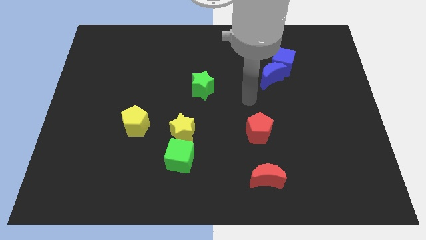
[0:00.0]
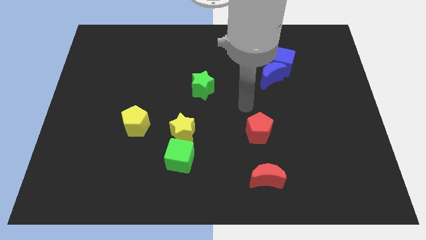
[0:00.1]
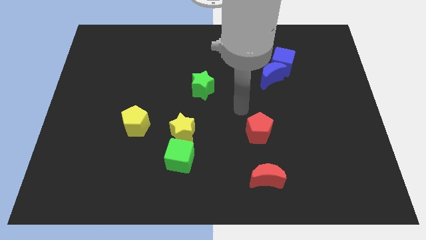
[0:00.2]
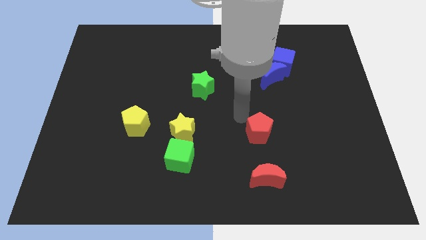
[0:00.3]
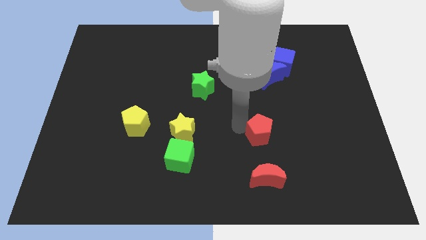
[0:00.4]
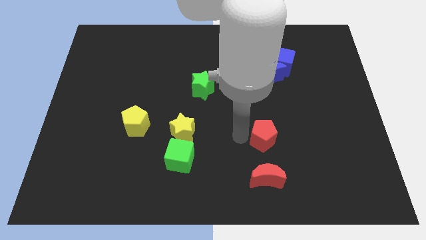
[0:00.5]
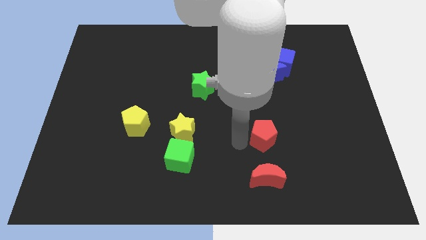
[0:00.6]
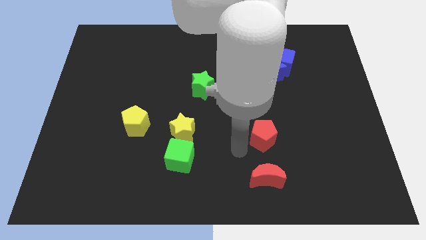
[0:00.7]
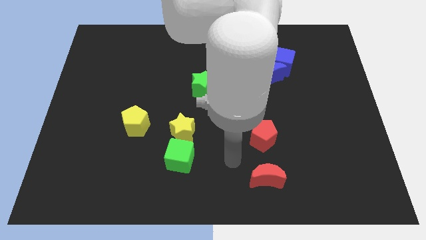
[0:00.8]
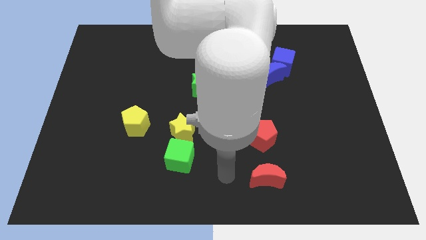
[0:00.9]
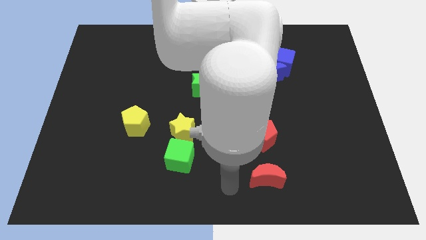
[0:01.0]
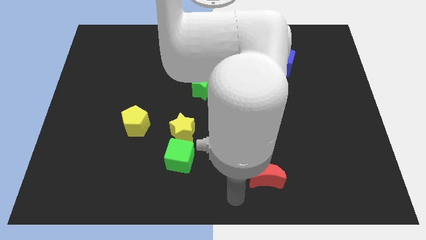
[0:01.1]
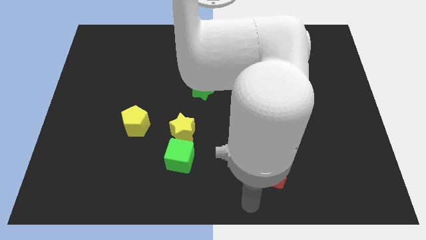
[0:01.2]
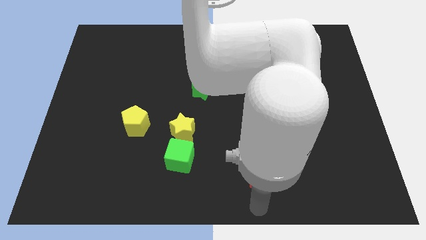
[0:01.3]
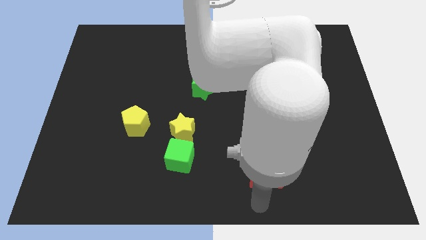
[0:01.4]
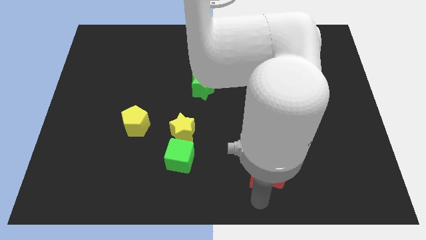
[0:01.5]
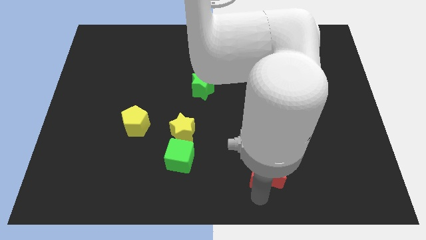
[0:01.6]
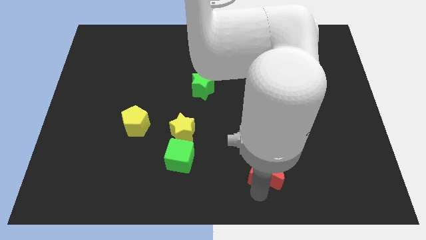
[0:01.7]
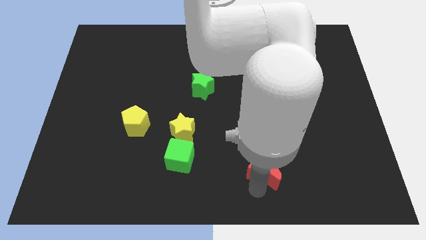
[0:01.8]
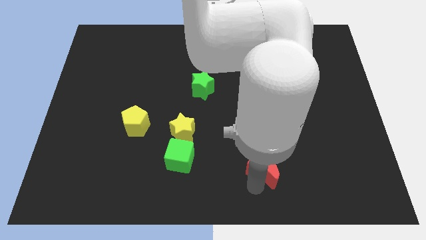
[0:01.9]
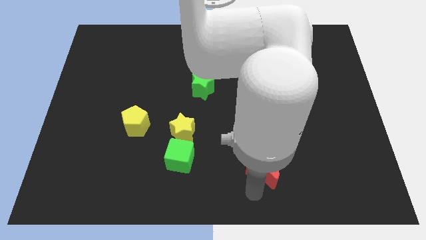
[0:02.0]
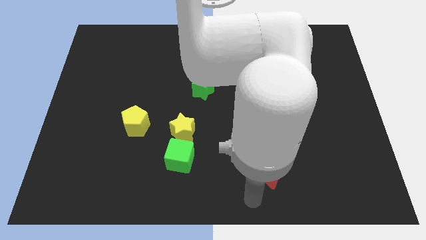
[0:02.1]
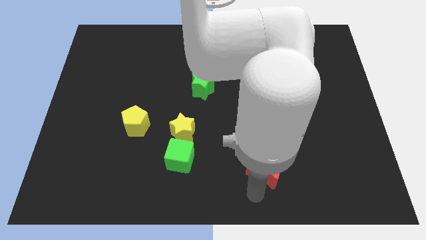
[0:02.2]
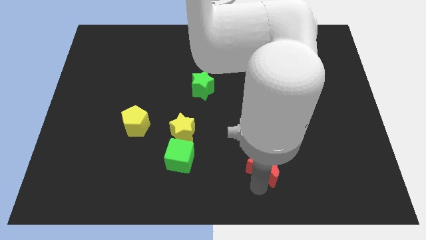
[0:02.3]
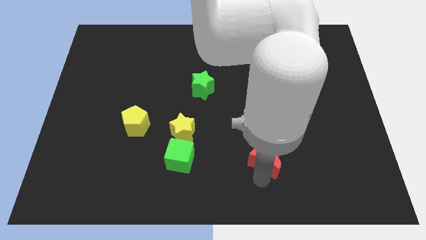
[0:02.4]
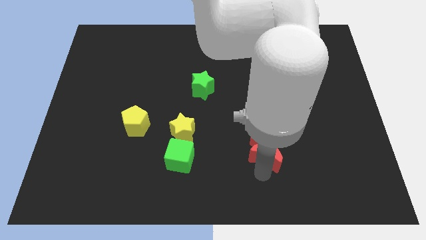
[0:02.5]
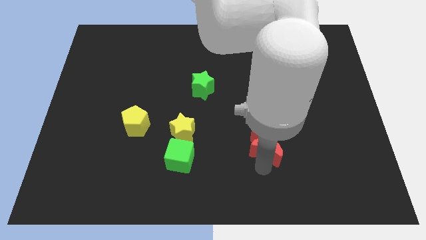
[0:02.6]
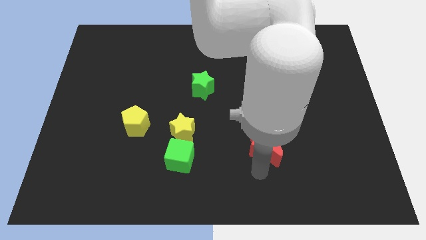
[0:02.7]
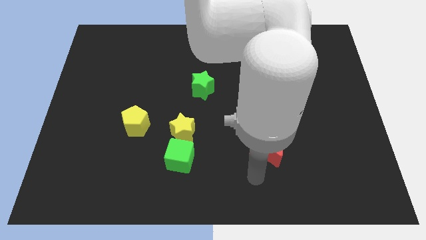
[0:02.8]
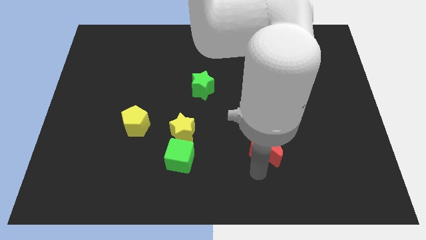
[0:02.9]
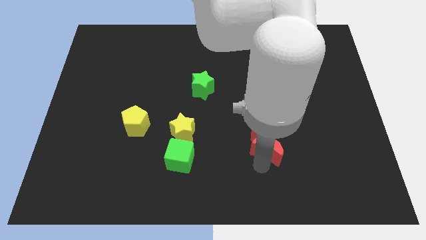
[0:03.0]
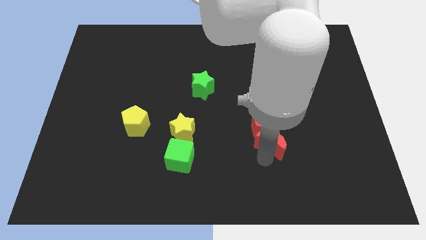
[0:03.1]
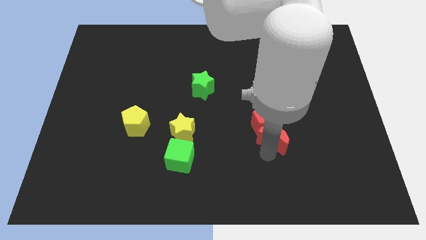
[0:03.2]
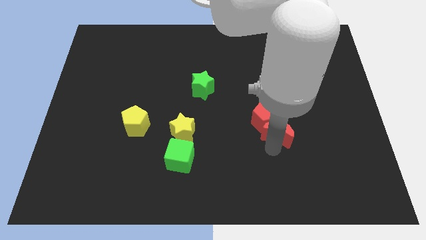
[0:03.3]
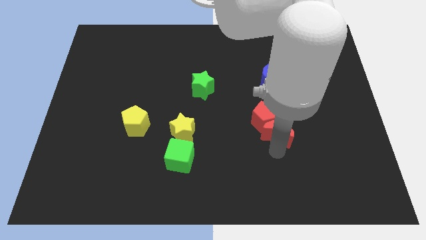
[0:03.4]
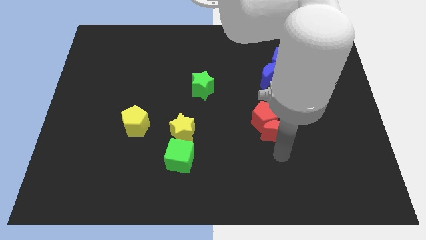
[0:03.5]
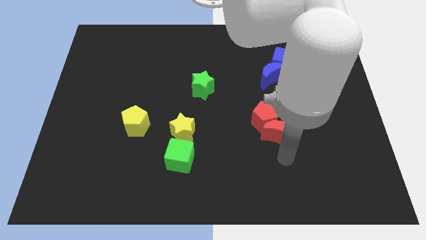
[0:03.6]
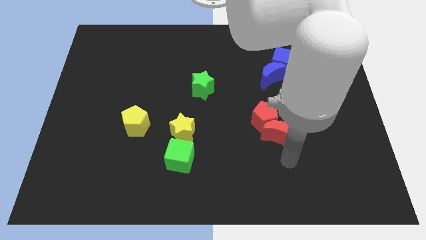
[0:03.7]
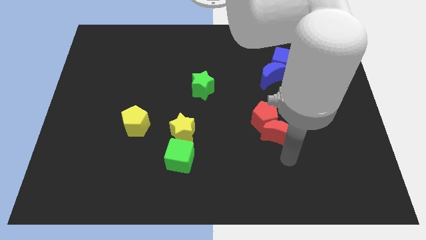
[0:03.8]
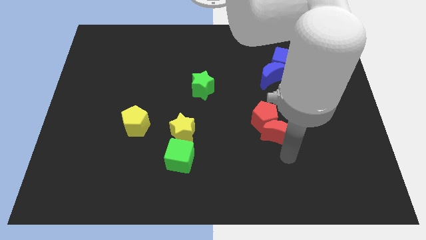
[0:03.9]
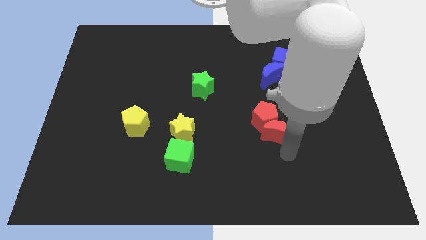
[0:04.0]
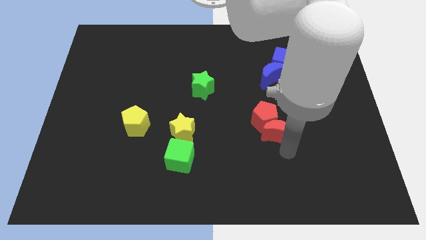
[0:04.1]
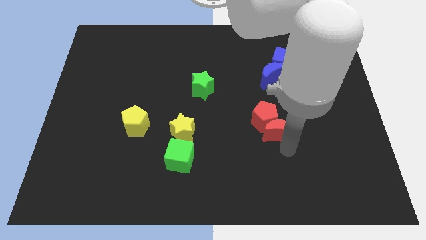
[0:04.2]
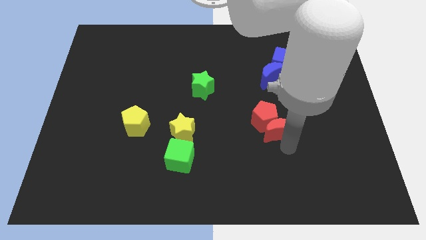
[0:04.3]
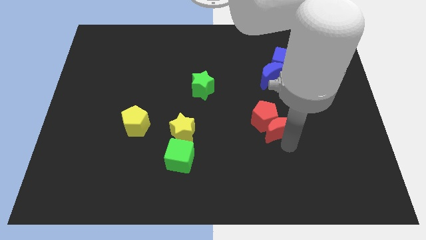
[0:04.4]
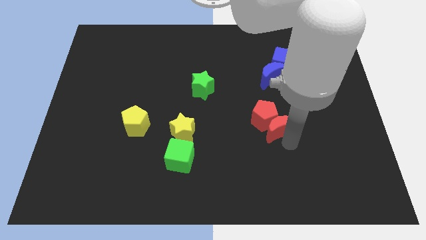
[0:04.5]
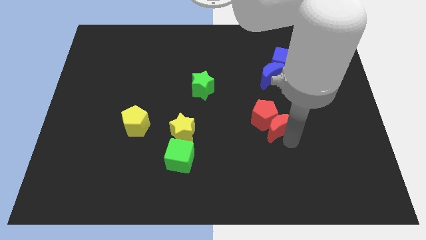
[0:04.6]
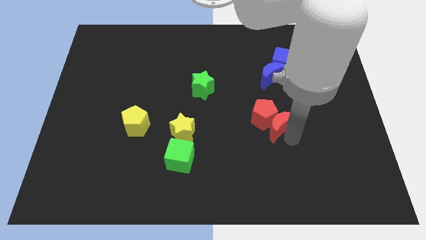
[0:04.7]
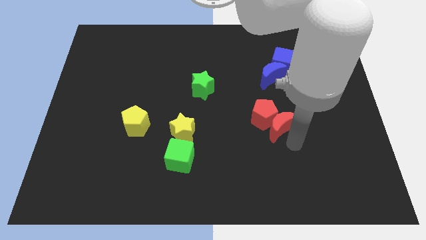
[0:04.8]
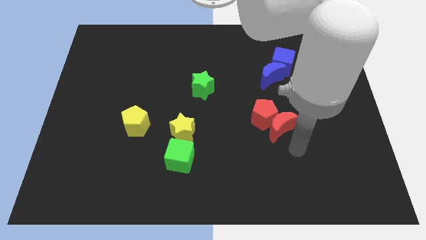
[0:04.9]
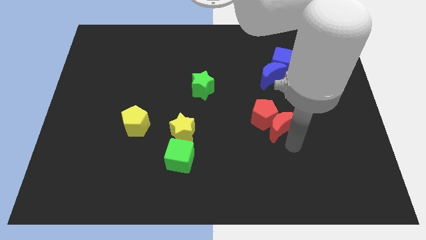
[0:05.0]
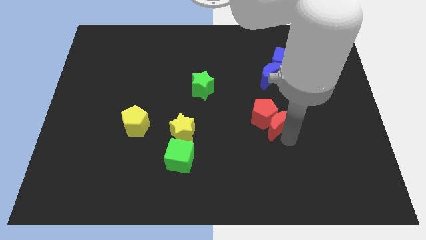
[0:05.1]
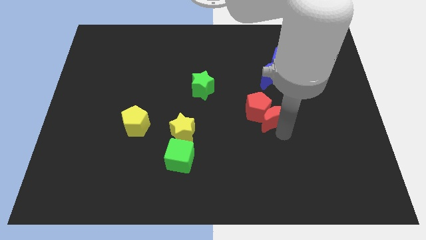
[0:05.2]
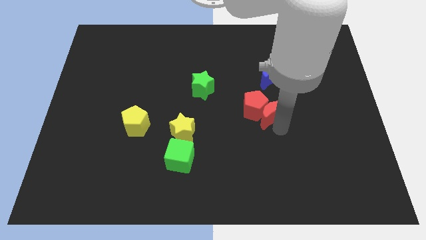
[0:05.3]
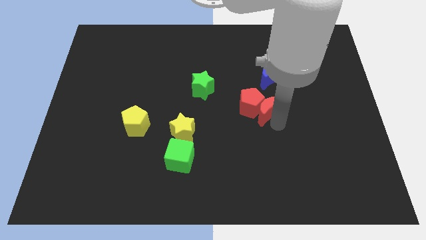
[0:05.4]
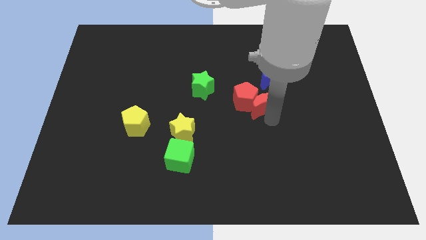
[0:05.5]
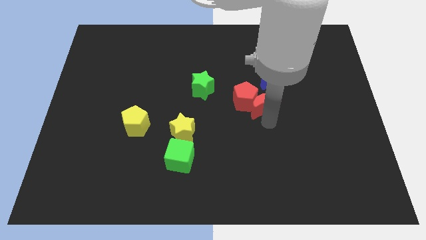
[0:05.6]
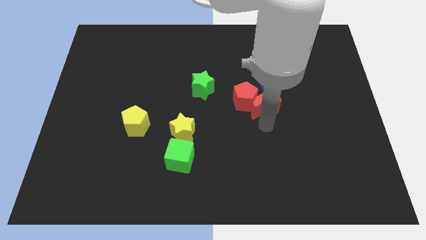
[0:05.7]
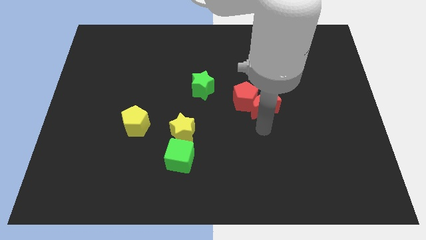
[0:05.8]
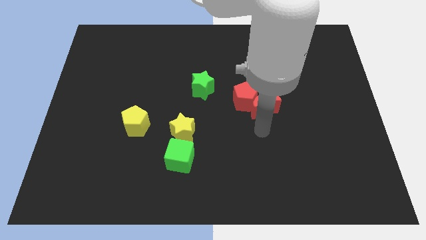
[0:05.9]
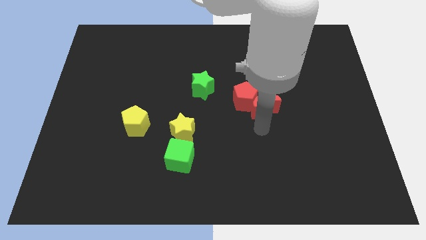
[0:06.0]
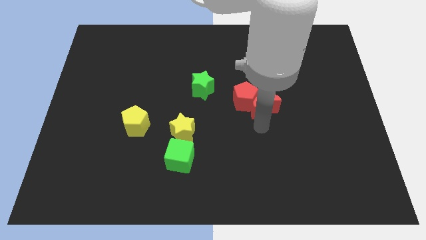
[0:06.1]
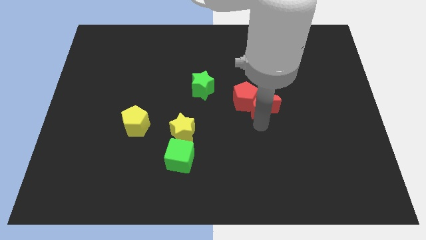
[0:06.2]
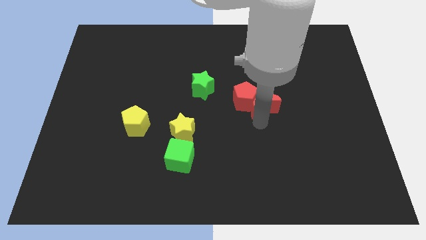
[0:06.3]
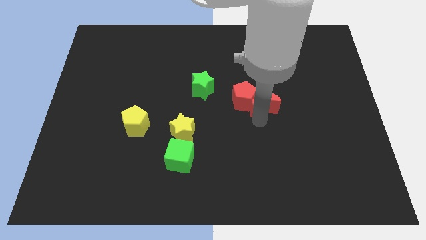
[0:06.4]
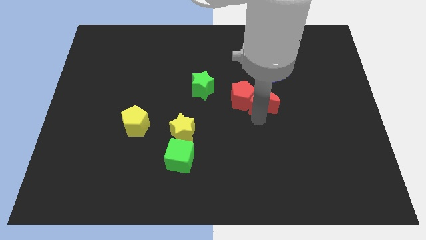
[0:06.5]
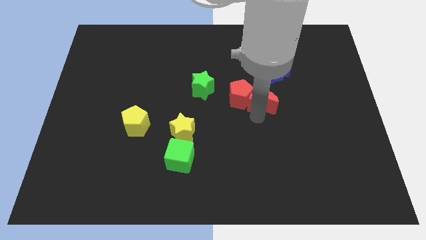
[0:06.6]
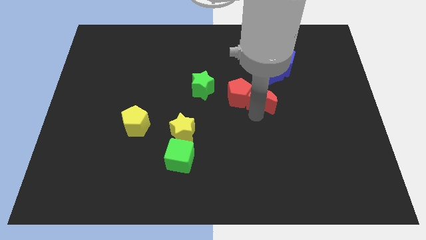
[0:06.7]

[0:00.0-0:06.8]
push the red moon upwards

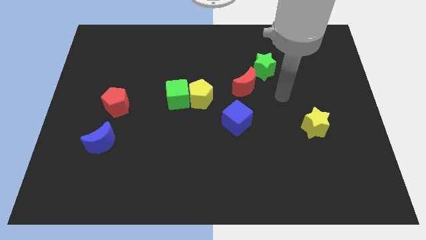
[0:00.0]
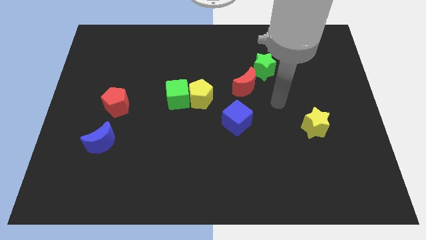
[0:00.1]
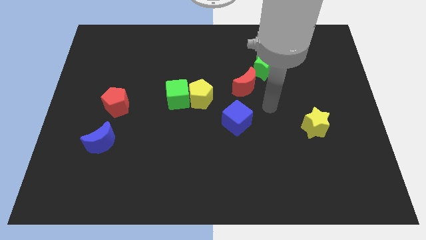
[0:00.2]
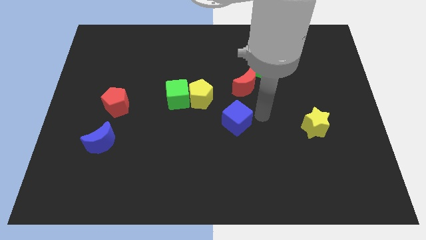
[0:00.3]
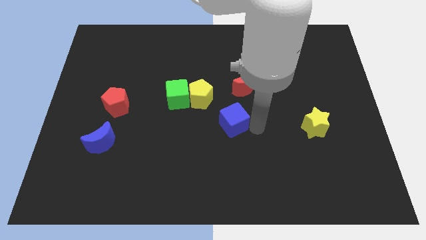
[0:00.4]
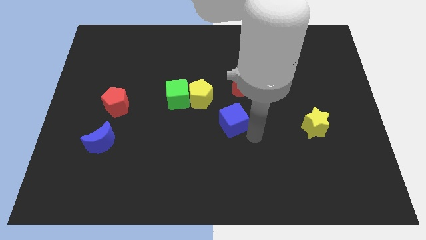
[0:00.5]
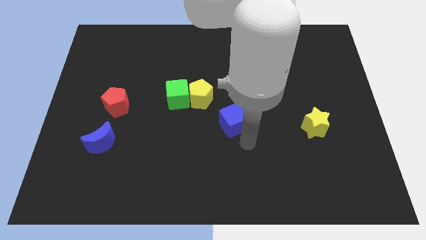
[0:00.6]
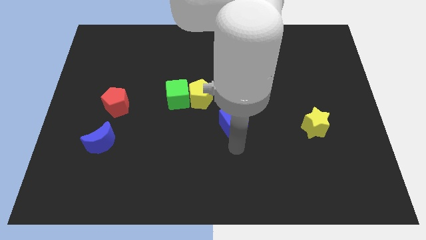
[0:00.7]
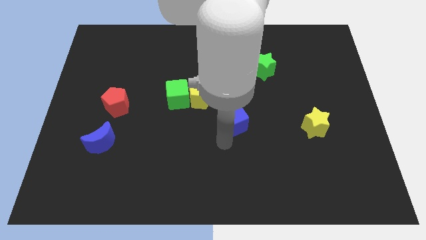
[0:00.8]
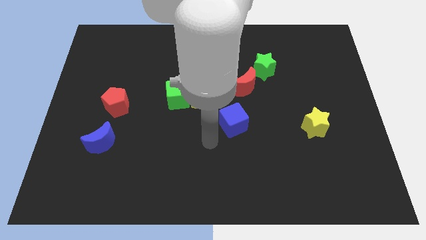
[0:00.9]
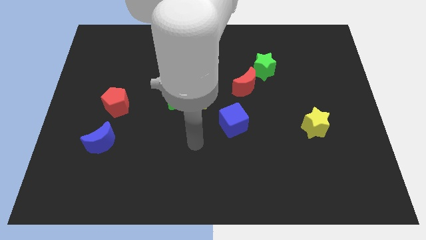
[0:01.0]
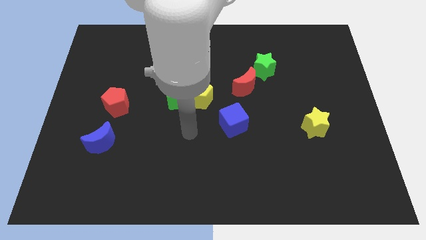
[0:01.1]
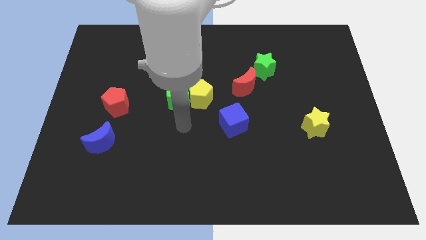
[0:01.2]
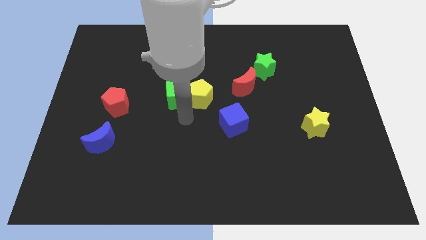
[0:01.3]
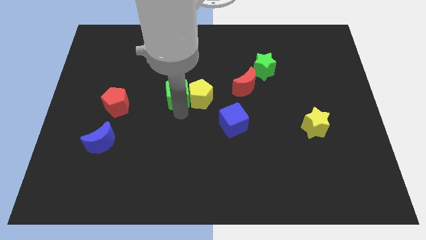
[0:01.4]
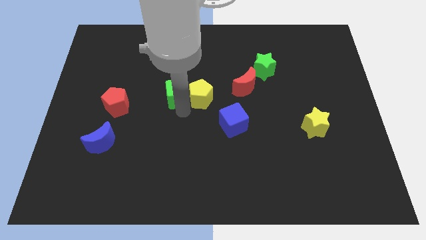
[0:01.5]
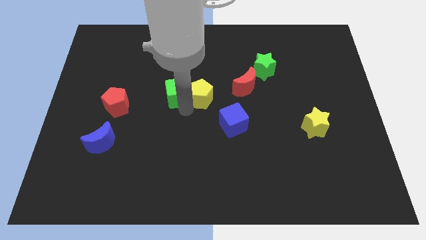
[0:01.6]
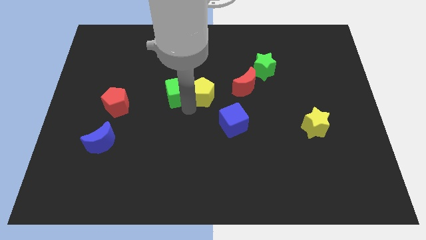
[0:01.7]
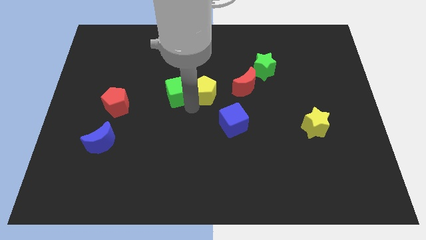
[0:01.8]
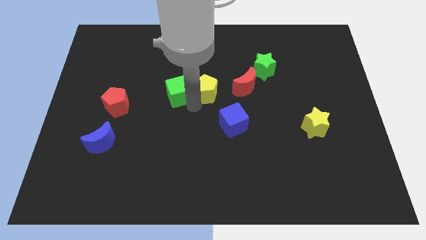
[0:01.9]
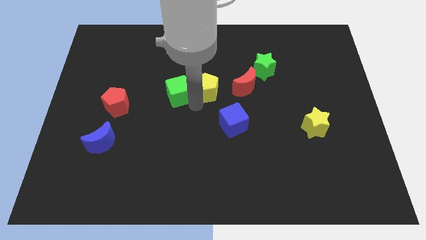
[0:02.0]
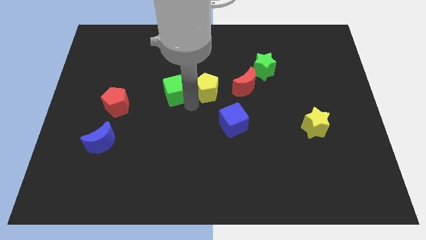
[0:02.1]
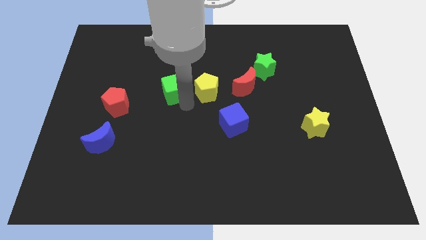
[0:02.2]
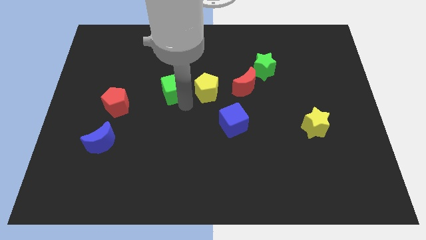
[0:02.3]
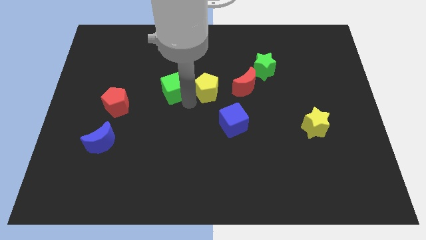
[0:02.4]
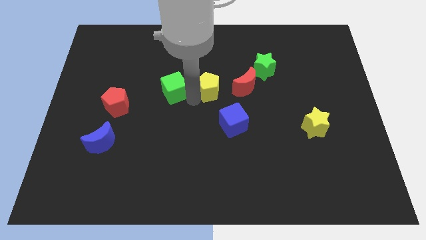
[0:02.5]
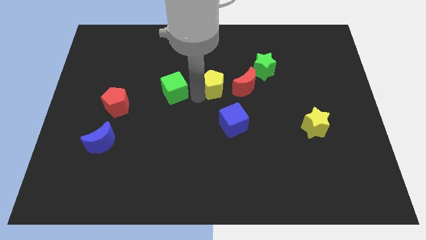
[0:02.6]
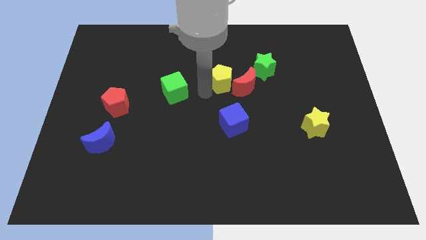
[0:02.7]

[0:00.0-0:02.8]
push the yellow pentagon slightly diagonally up and to the right
